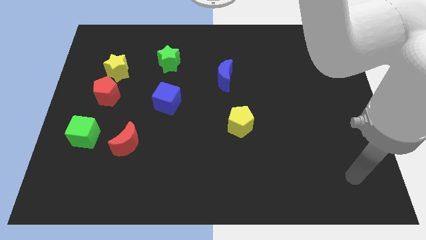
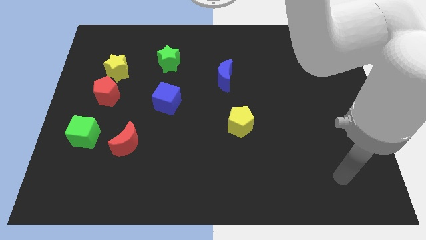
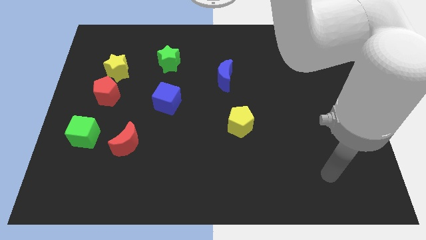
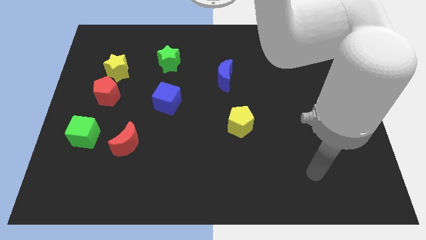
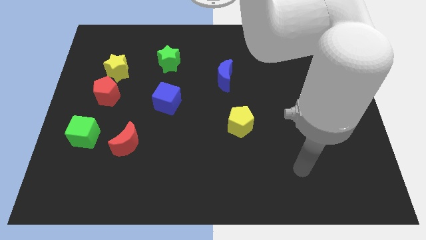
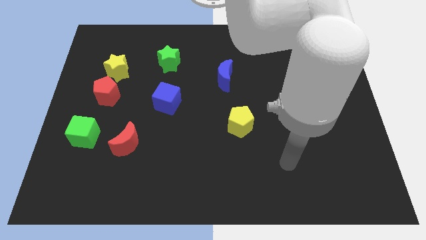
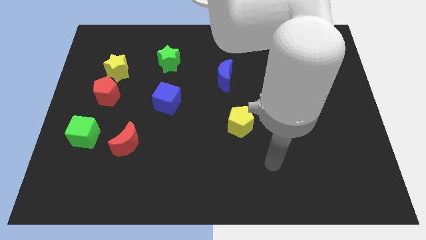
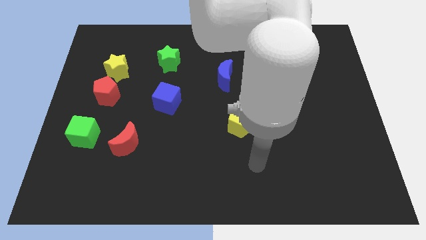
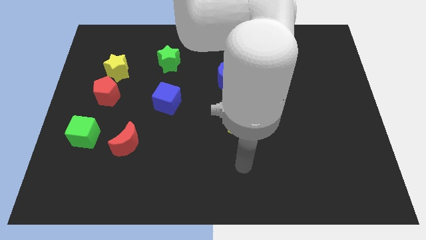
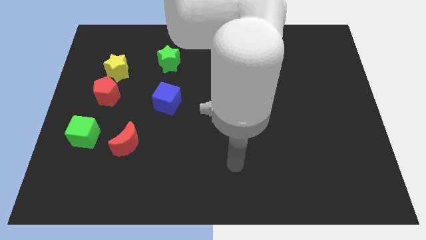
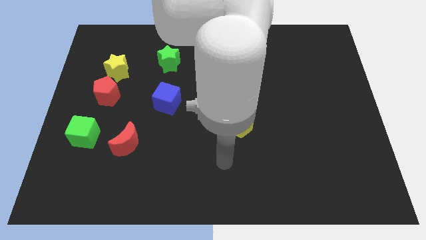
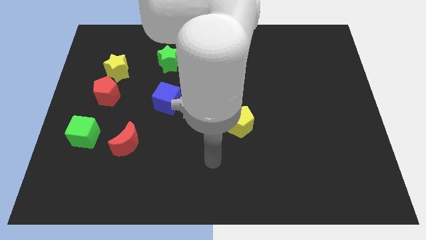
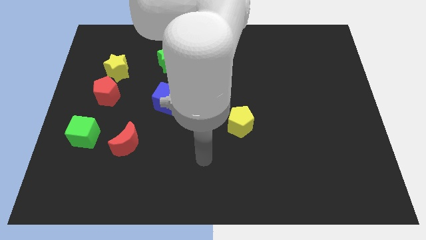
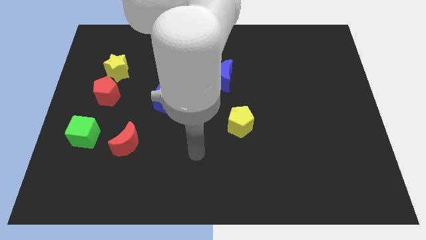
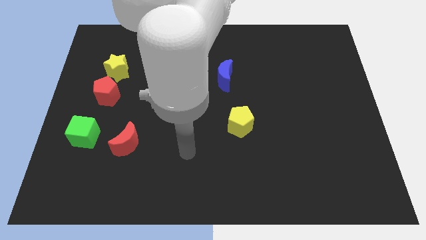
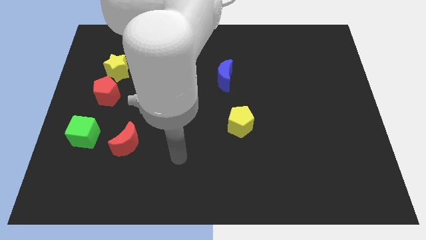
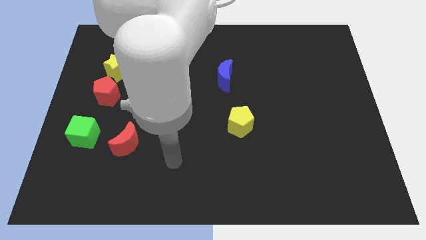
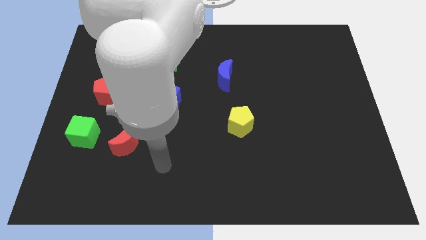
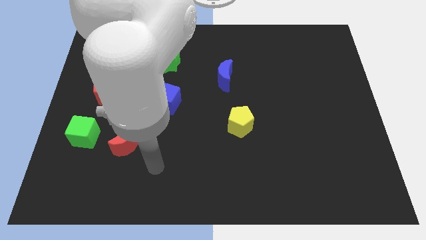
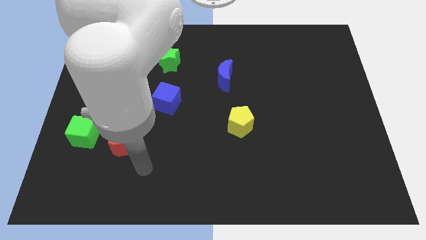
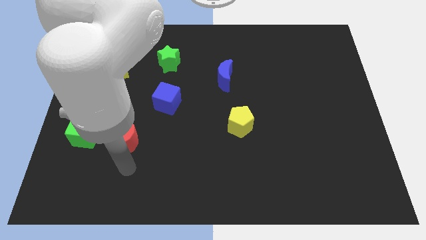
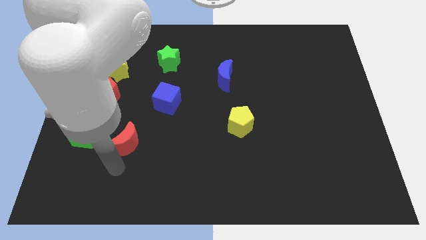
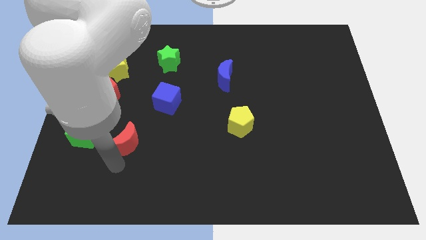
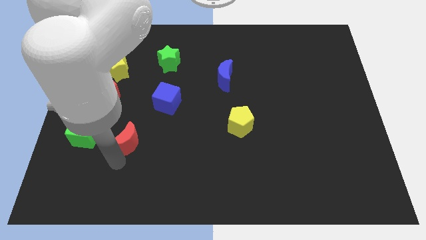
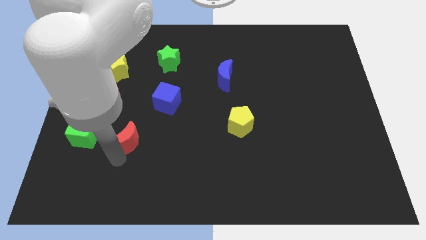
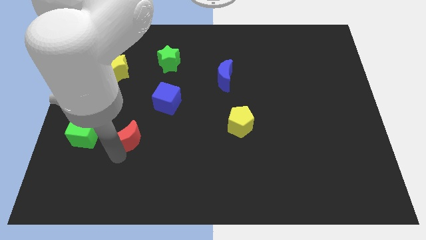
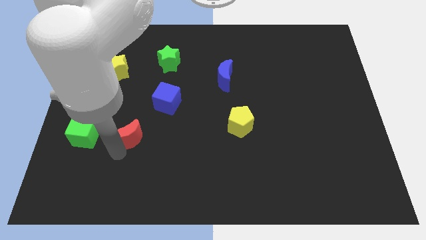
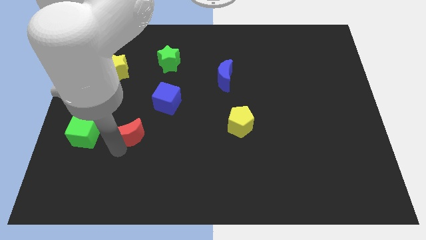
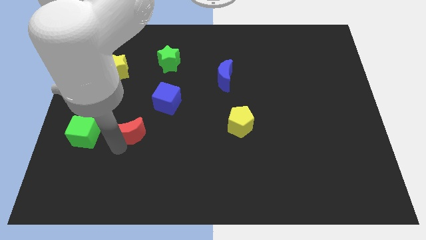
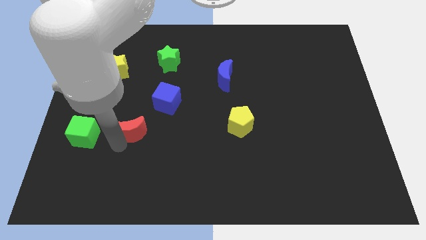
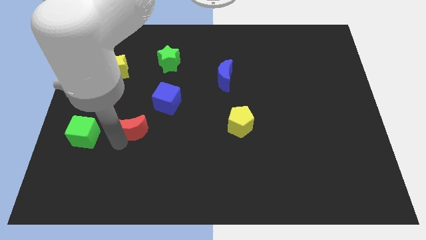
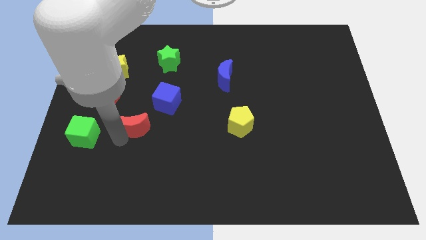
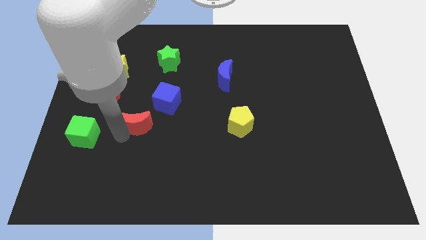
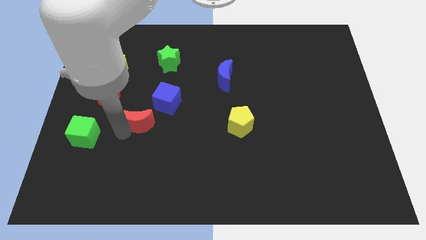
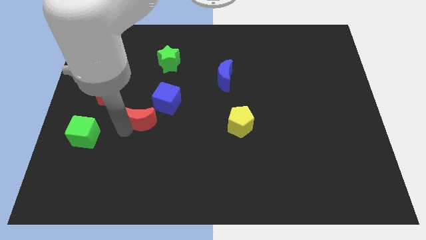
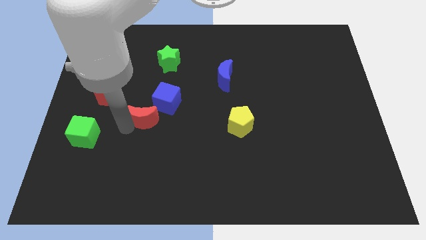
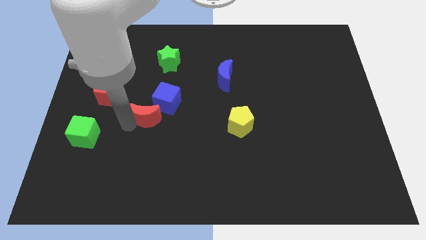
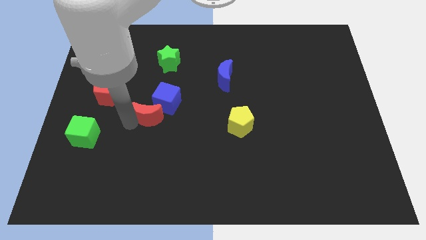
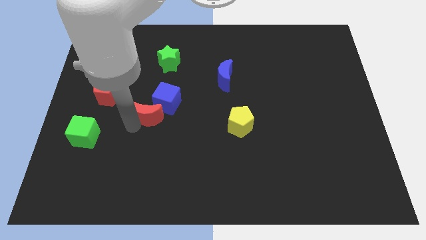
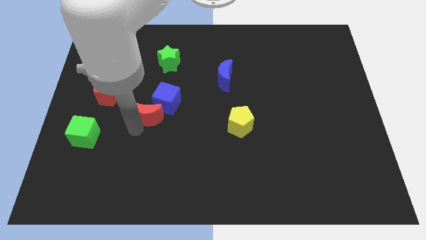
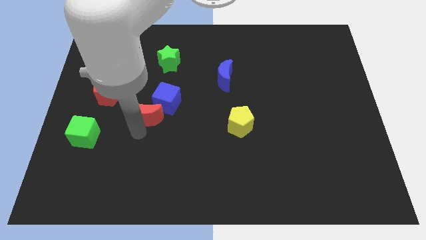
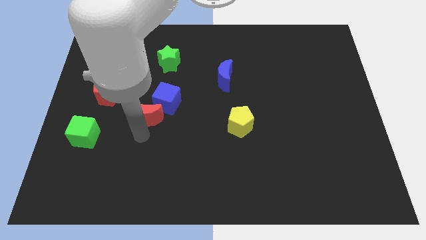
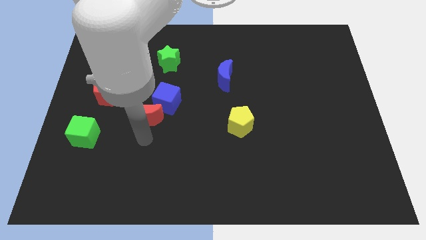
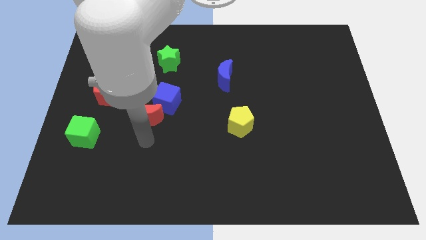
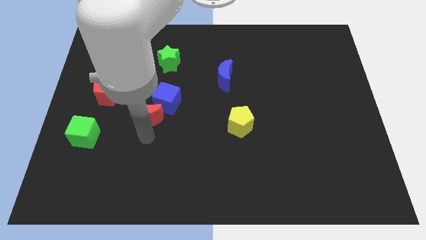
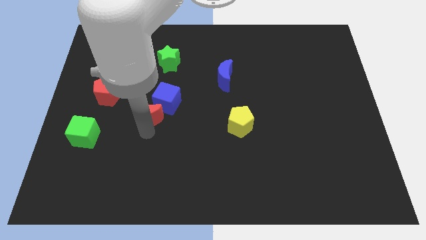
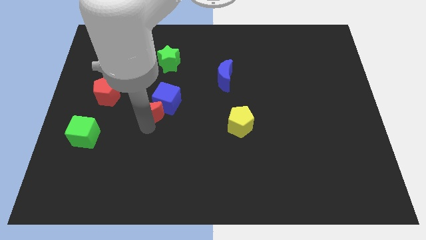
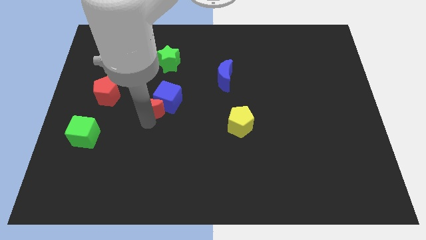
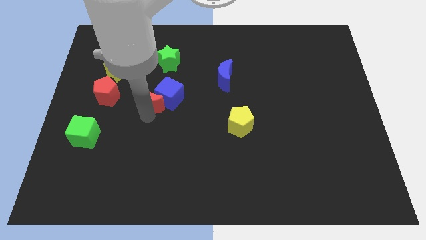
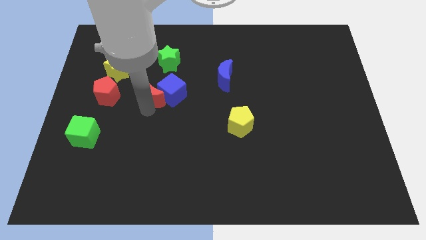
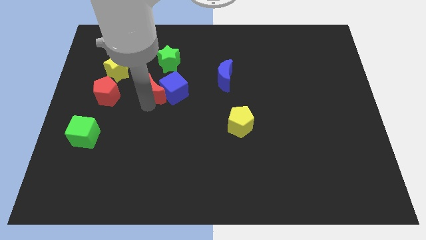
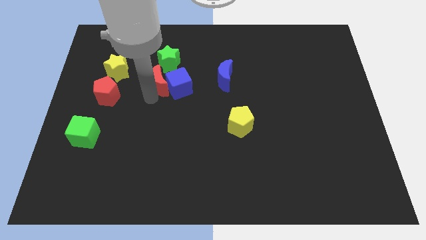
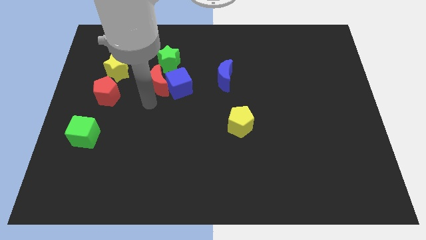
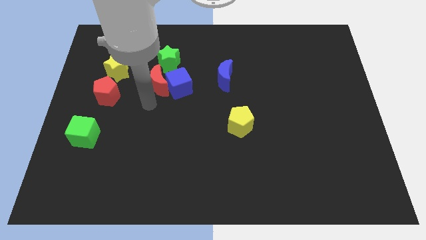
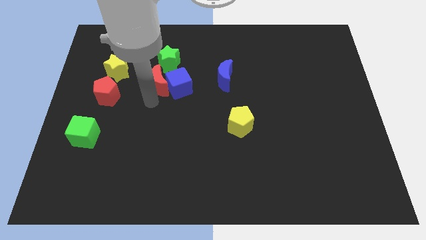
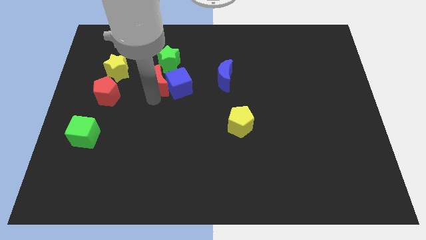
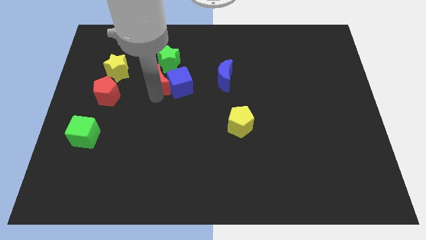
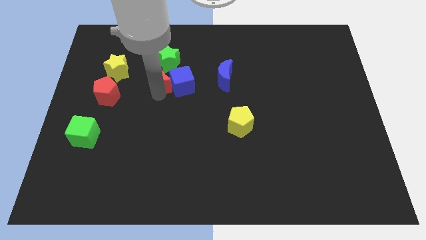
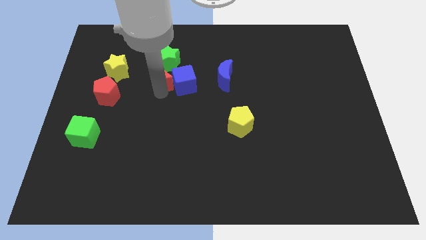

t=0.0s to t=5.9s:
put the red moon to the green star

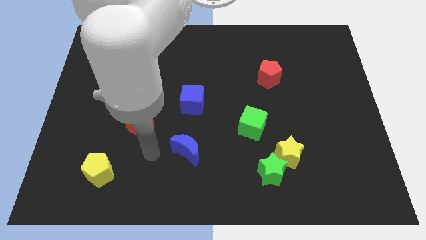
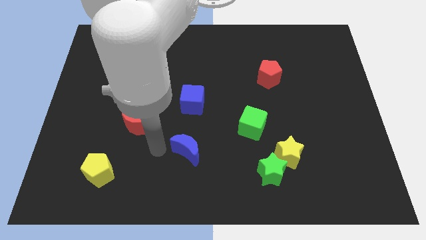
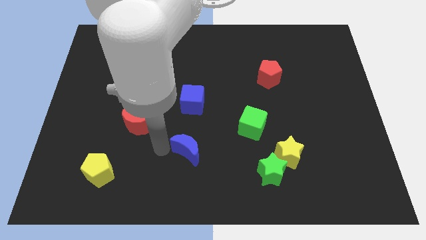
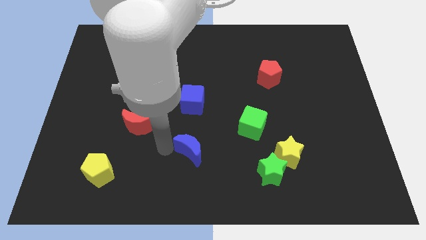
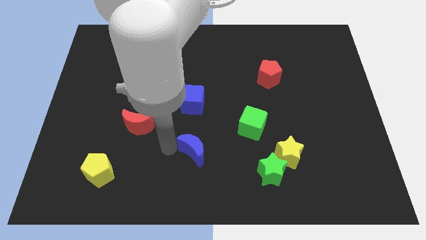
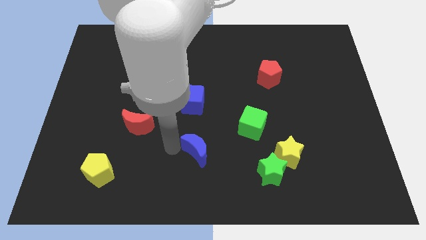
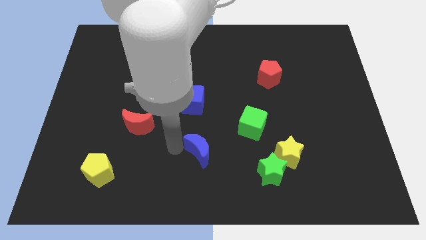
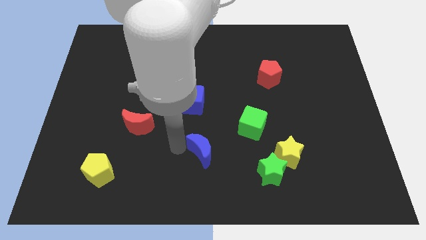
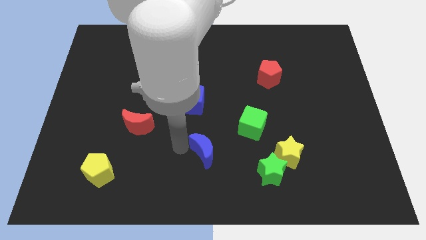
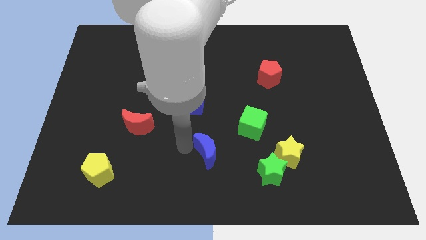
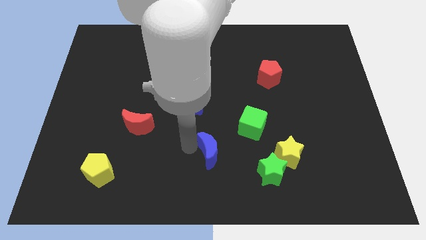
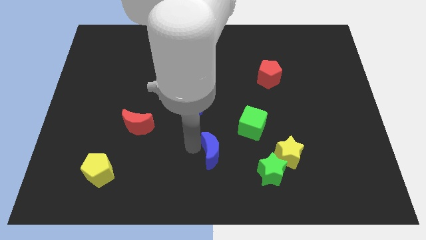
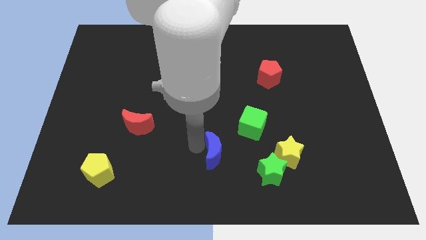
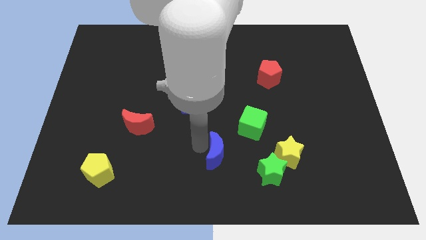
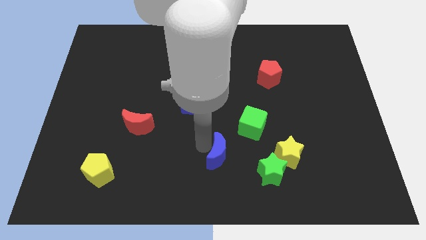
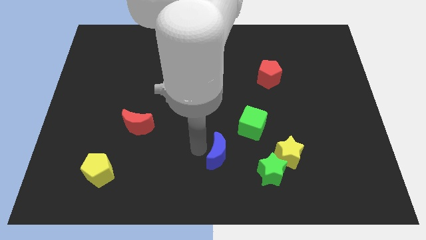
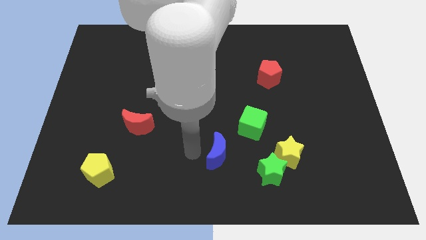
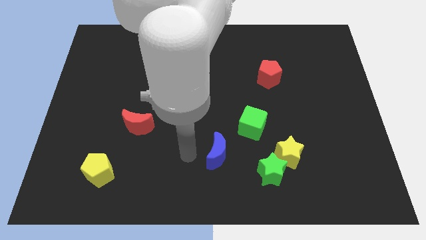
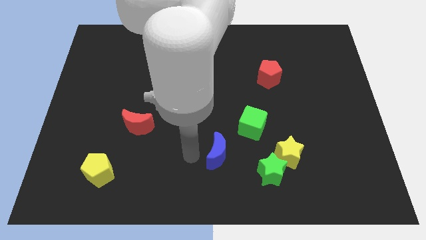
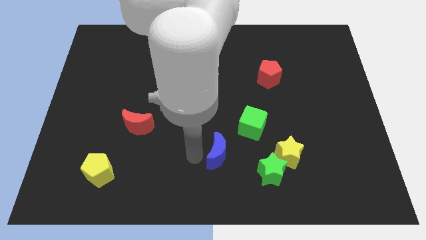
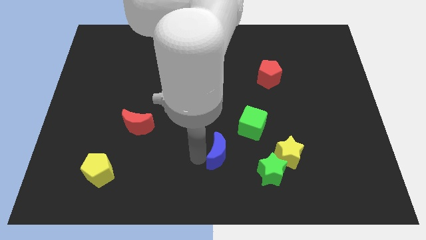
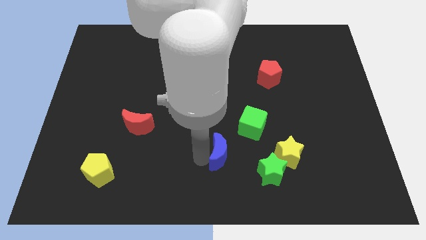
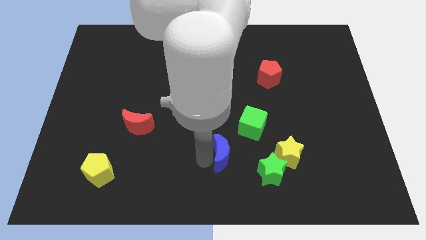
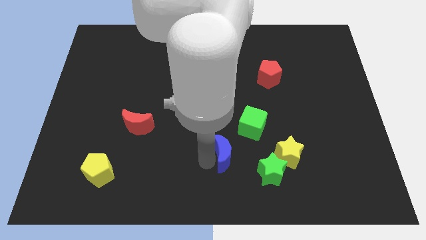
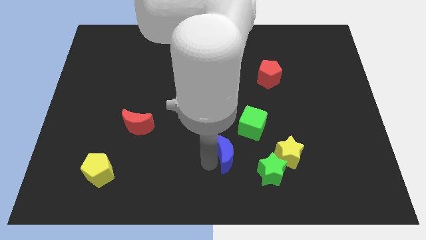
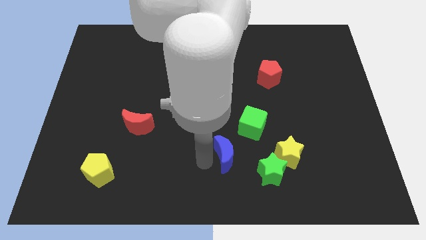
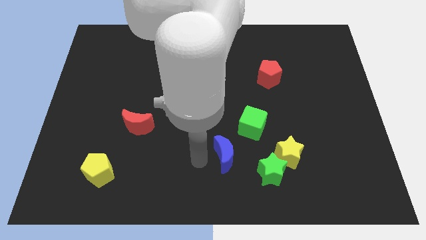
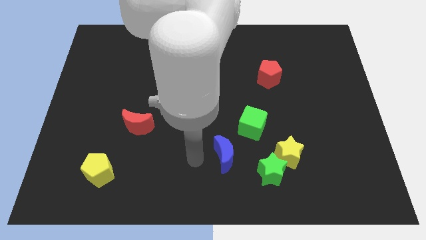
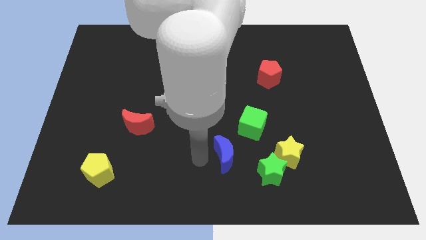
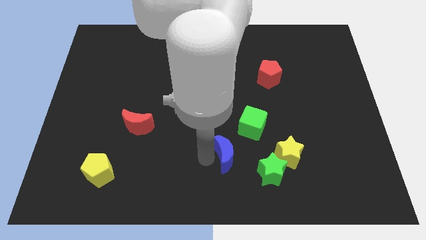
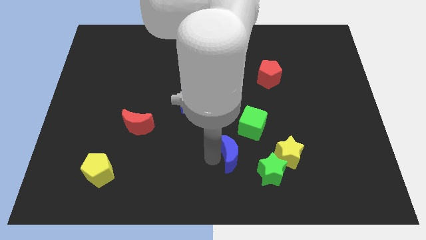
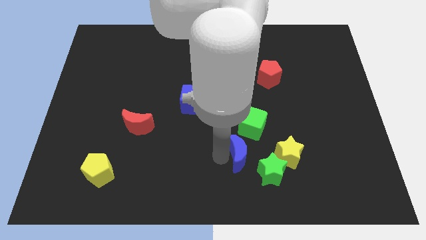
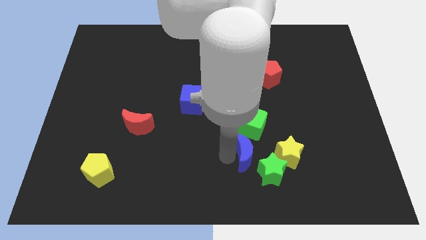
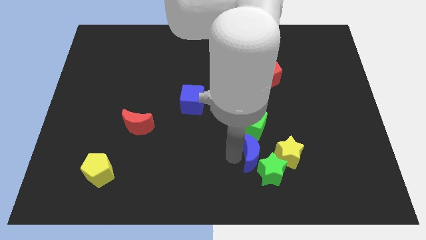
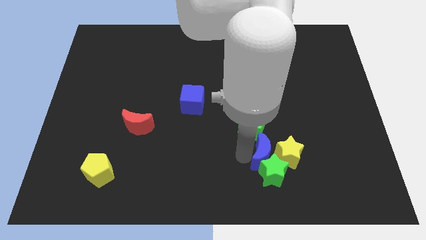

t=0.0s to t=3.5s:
put the blue moon towards the yellow star
